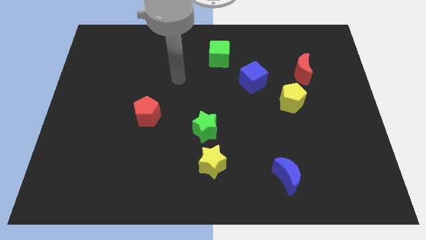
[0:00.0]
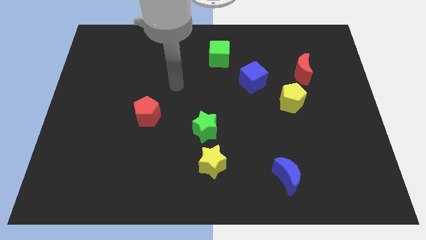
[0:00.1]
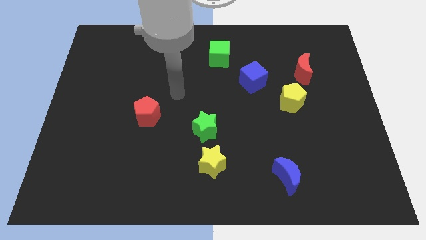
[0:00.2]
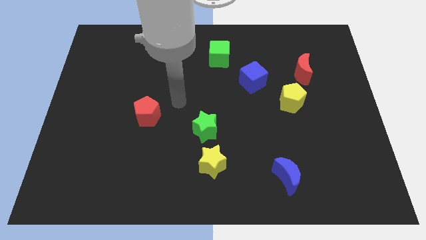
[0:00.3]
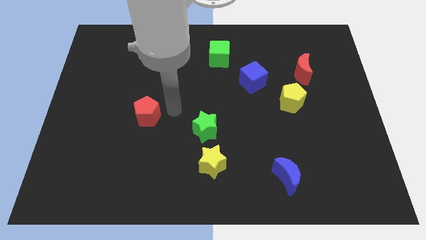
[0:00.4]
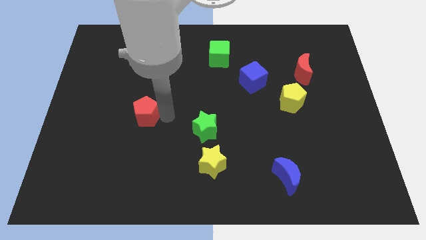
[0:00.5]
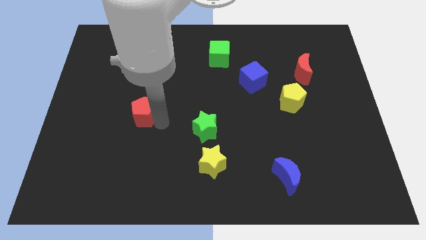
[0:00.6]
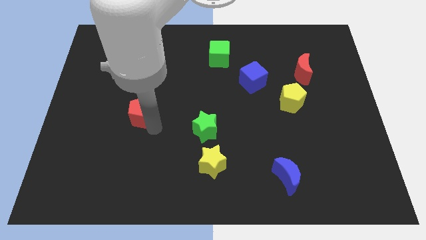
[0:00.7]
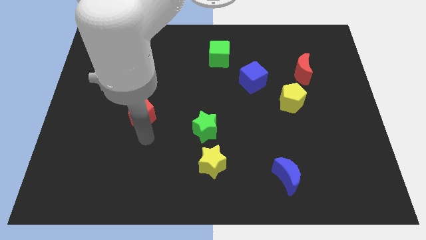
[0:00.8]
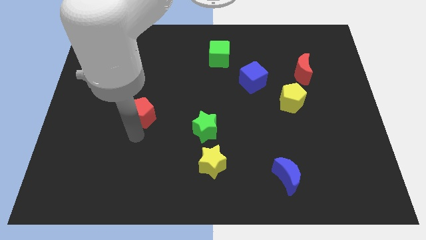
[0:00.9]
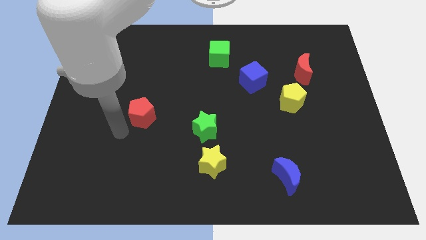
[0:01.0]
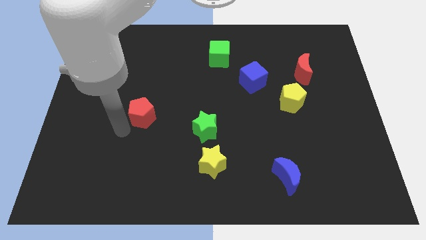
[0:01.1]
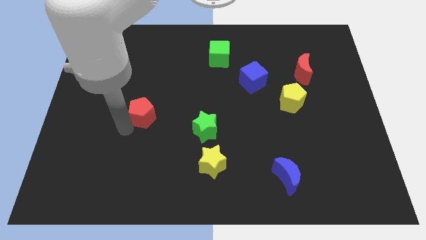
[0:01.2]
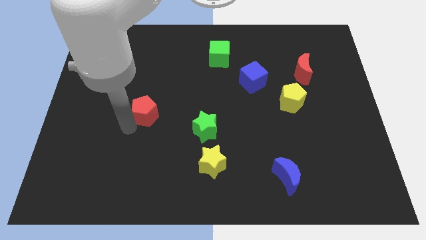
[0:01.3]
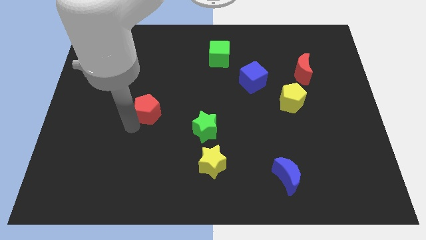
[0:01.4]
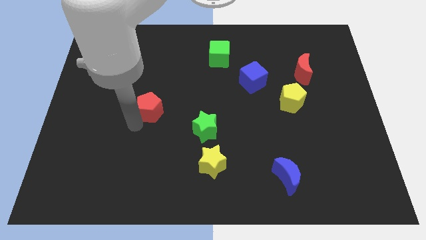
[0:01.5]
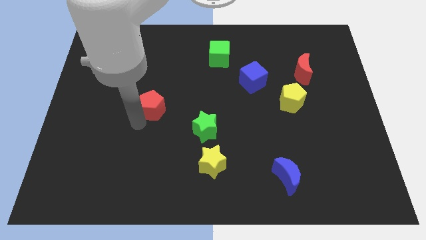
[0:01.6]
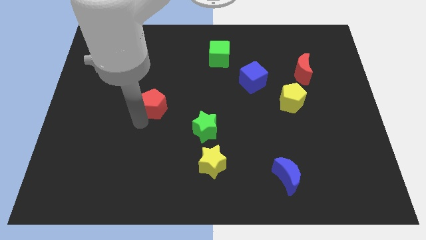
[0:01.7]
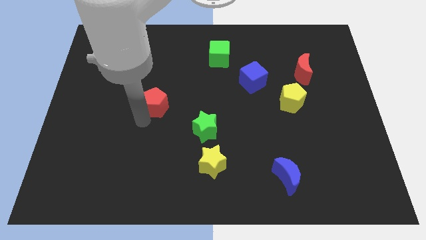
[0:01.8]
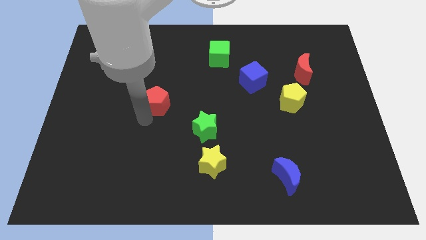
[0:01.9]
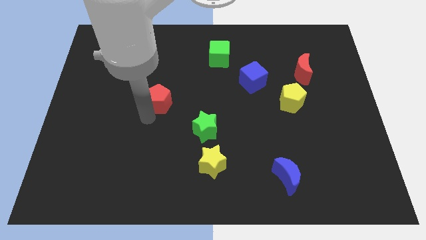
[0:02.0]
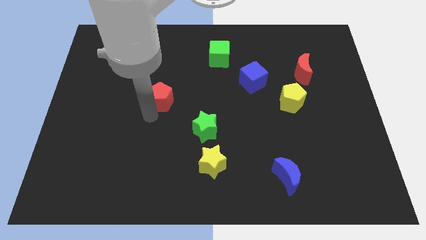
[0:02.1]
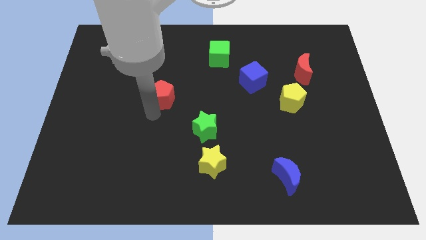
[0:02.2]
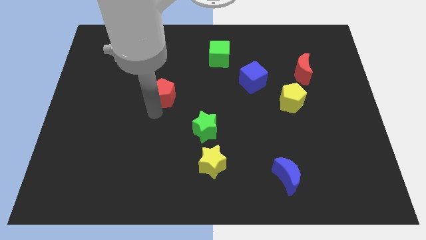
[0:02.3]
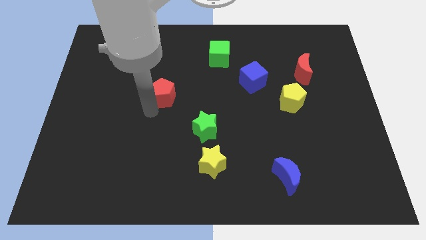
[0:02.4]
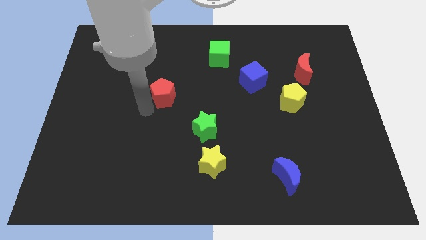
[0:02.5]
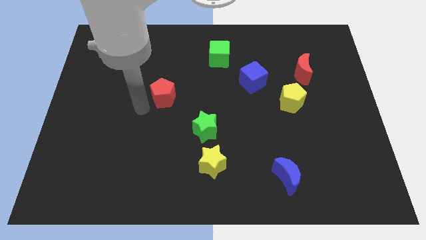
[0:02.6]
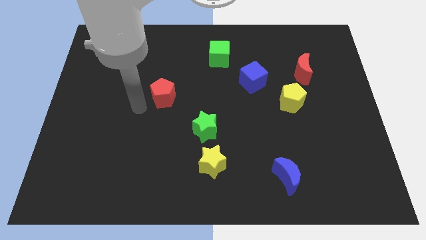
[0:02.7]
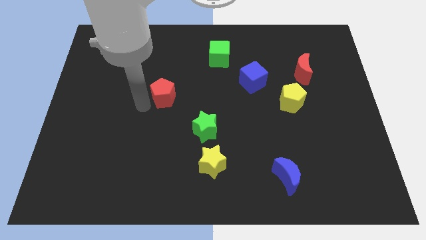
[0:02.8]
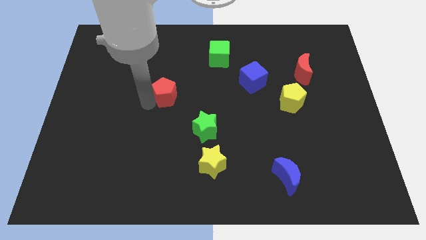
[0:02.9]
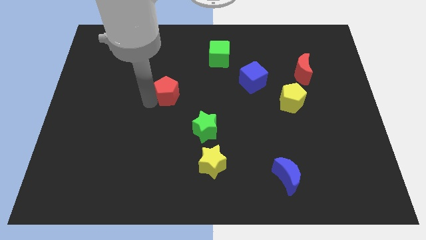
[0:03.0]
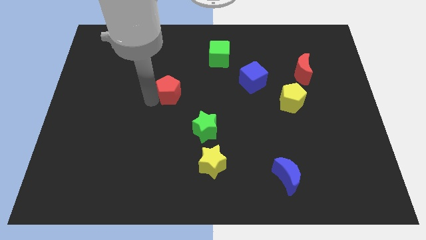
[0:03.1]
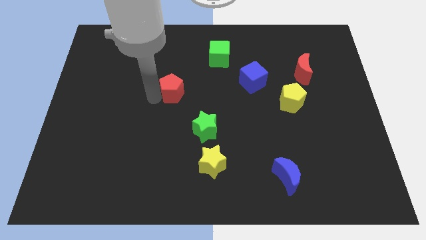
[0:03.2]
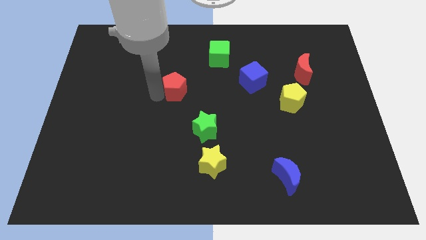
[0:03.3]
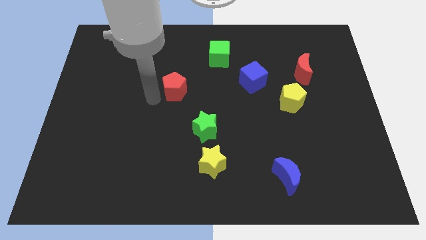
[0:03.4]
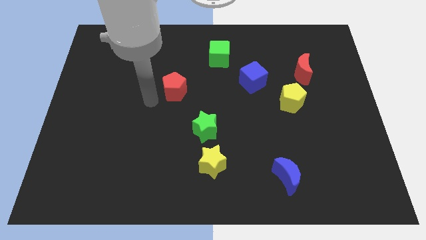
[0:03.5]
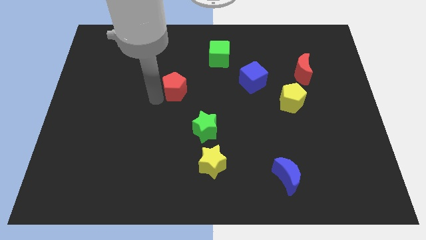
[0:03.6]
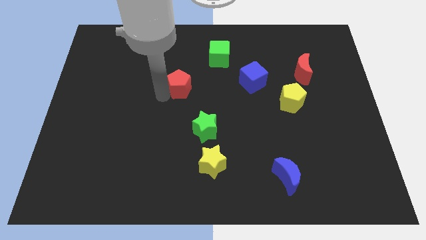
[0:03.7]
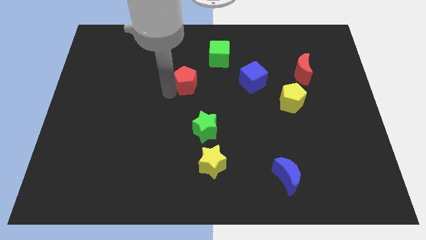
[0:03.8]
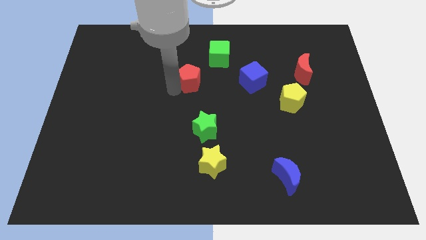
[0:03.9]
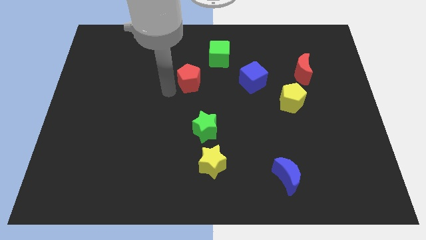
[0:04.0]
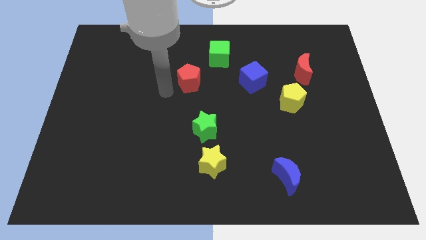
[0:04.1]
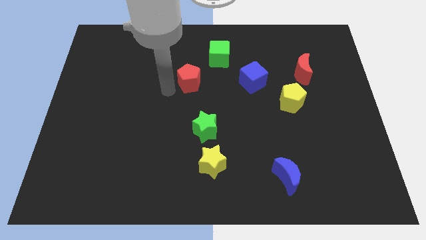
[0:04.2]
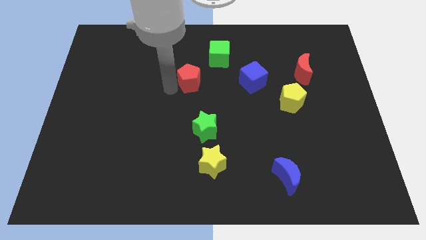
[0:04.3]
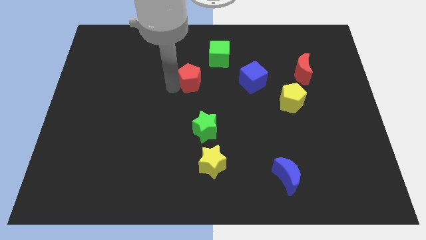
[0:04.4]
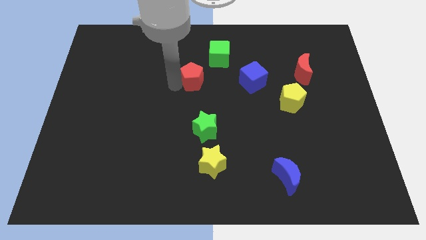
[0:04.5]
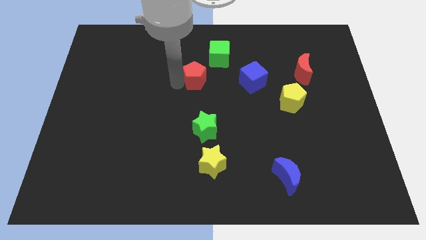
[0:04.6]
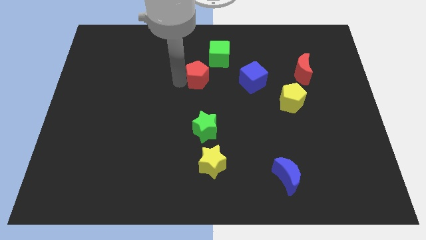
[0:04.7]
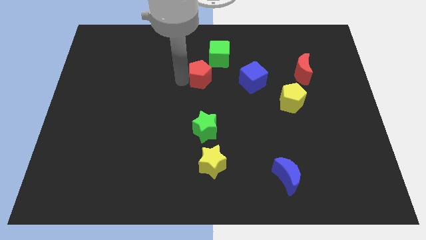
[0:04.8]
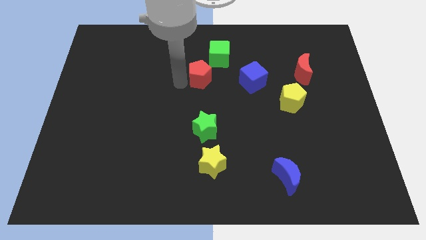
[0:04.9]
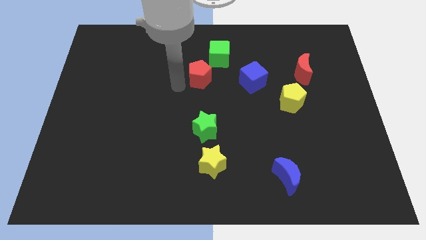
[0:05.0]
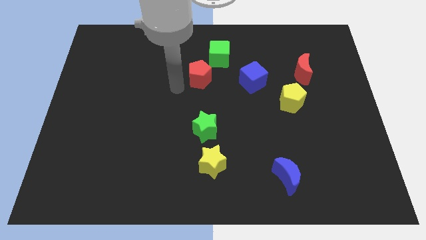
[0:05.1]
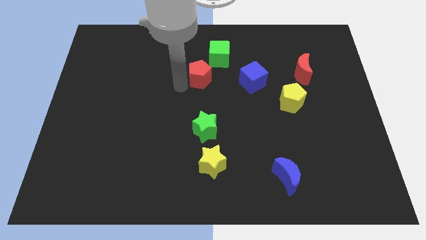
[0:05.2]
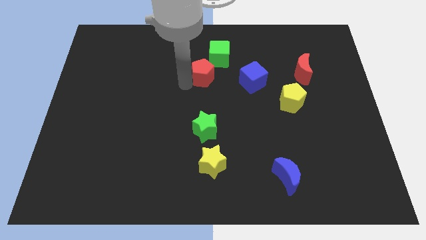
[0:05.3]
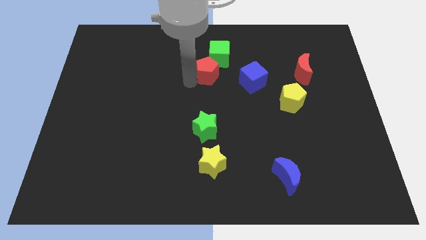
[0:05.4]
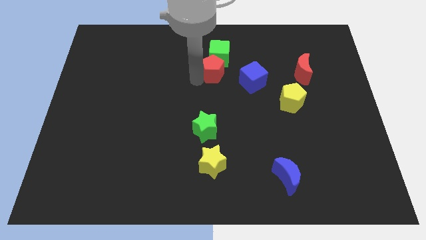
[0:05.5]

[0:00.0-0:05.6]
push the red pentagon next to the green cube
